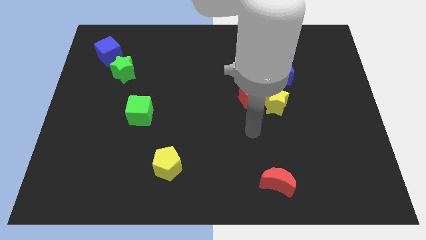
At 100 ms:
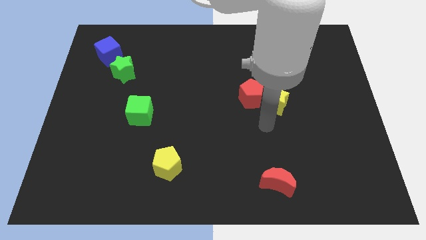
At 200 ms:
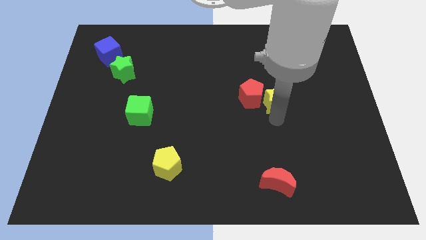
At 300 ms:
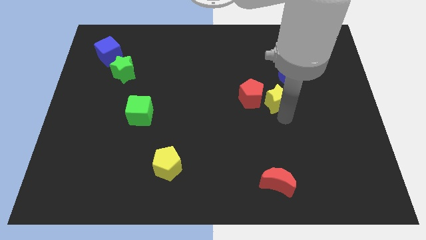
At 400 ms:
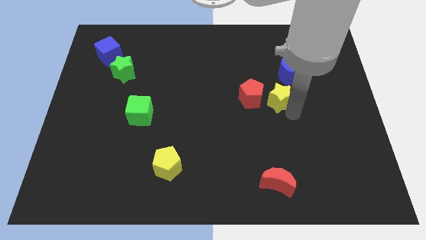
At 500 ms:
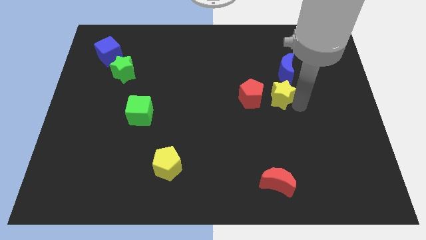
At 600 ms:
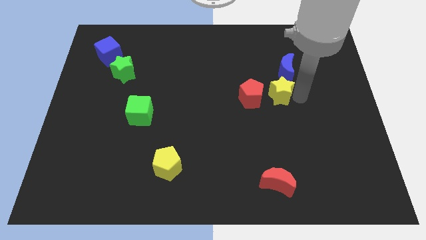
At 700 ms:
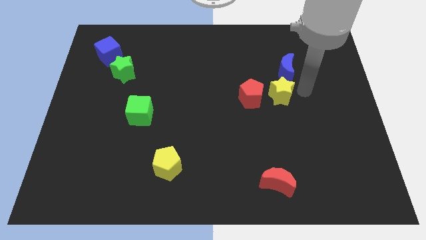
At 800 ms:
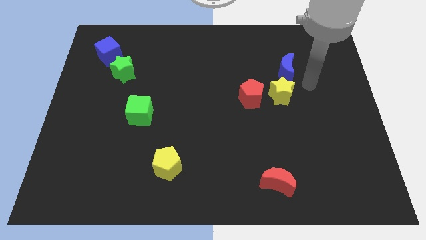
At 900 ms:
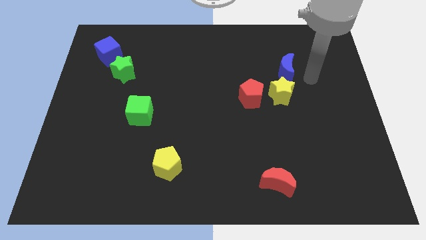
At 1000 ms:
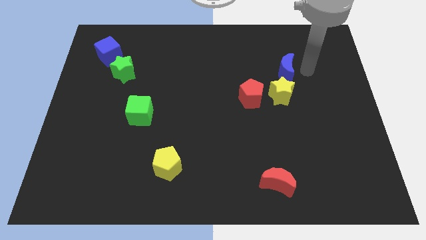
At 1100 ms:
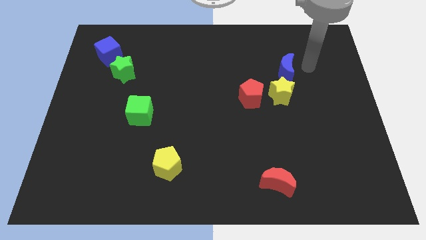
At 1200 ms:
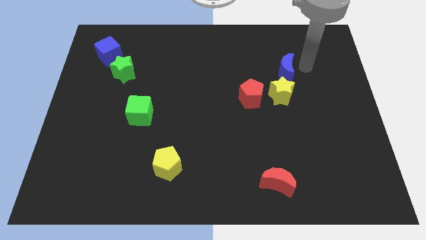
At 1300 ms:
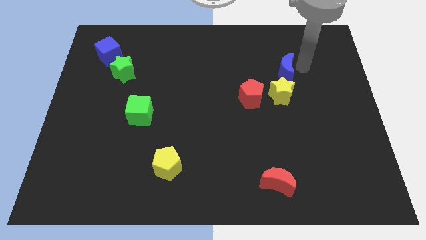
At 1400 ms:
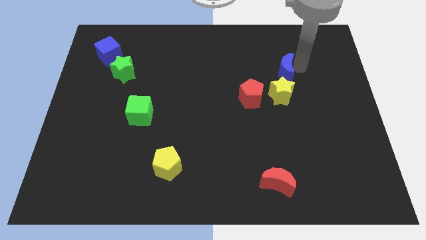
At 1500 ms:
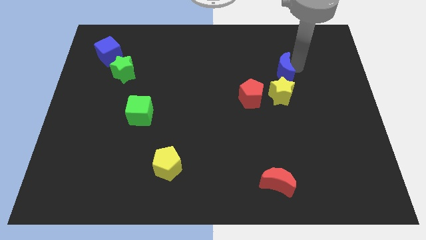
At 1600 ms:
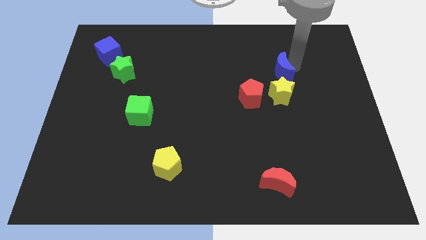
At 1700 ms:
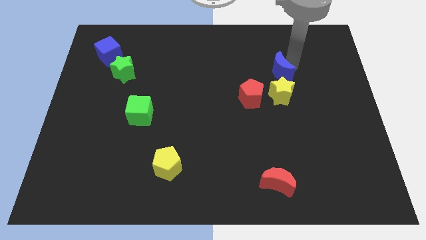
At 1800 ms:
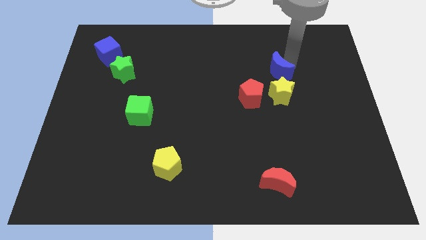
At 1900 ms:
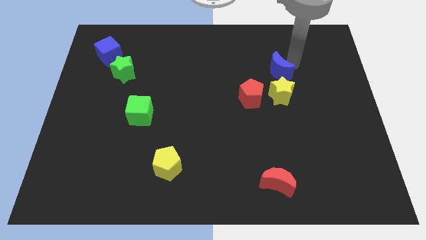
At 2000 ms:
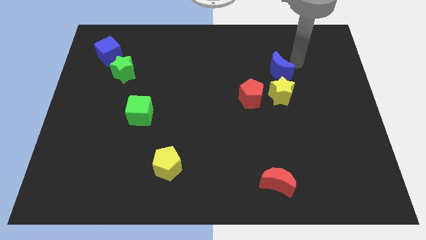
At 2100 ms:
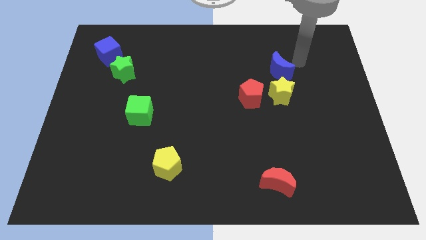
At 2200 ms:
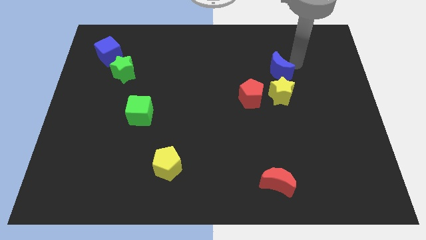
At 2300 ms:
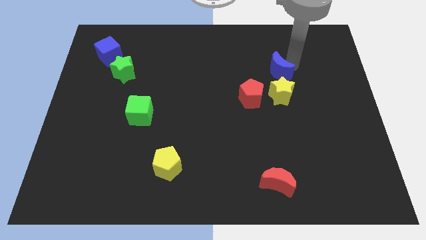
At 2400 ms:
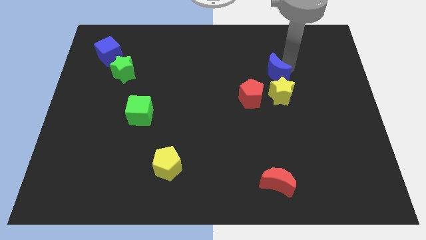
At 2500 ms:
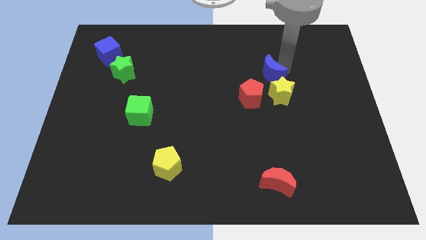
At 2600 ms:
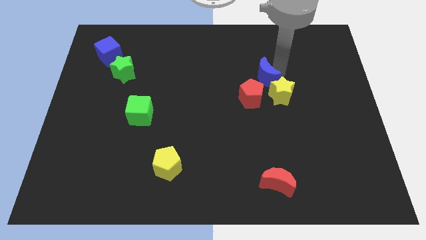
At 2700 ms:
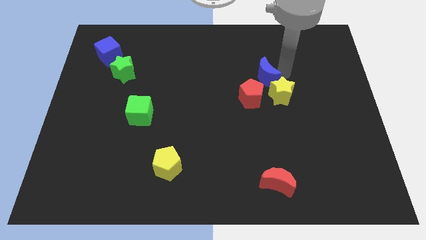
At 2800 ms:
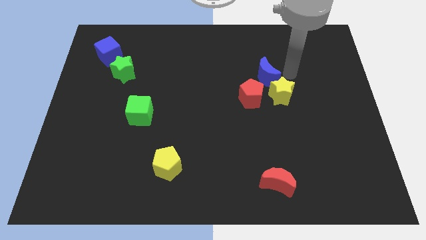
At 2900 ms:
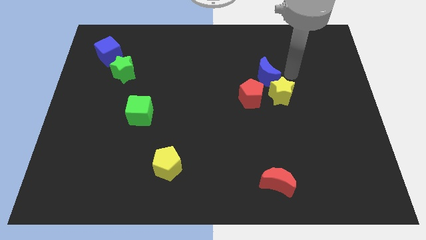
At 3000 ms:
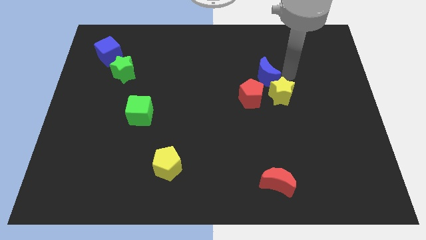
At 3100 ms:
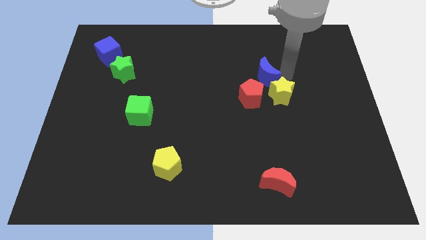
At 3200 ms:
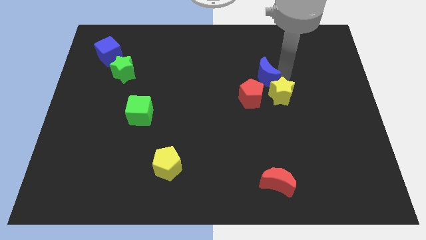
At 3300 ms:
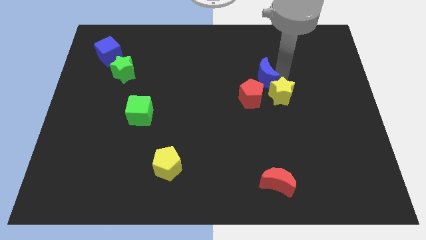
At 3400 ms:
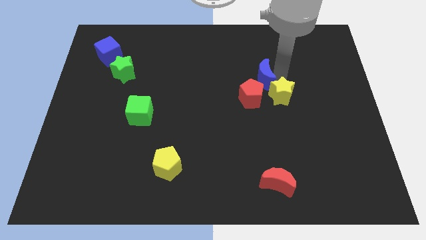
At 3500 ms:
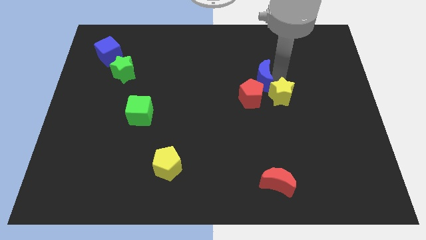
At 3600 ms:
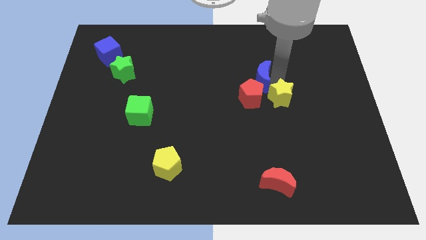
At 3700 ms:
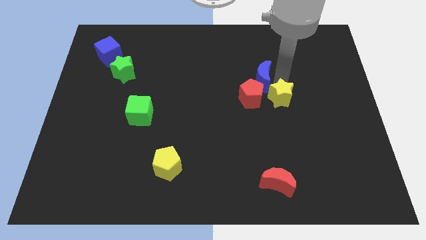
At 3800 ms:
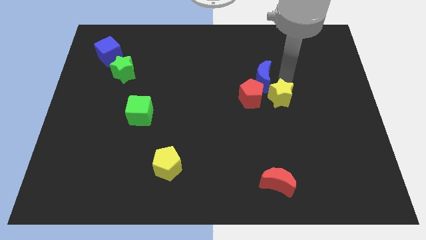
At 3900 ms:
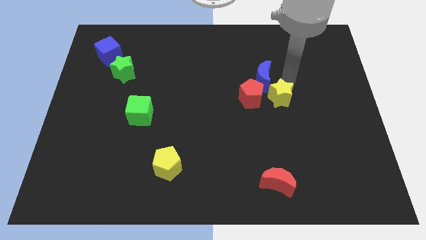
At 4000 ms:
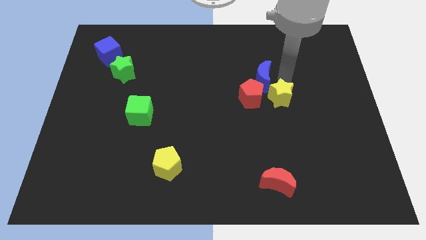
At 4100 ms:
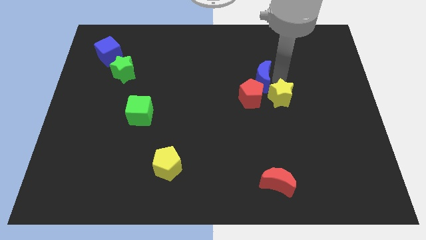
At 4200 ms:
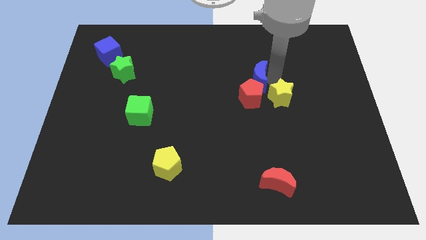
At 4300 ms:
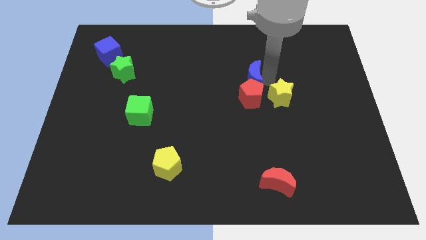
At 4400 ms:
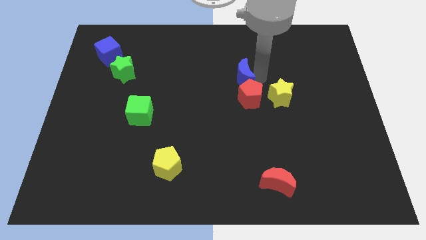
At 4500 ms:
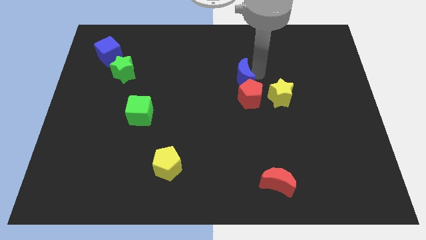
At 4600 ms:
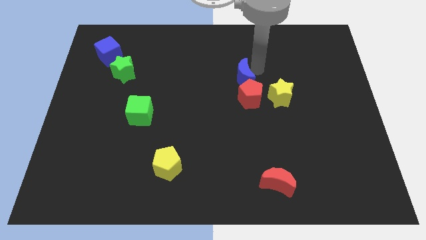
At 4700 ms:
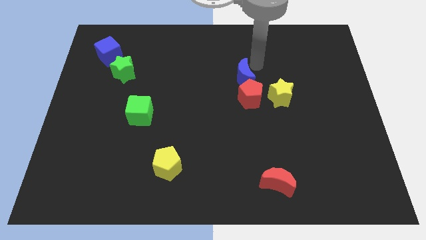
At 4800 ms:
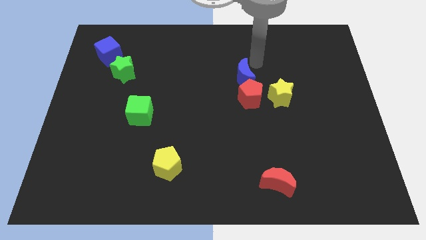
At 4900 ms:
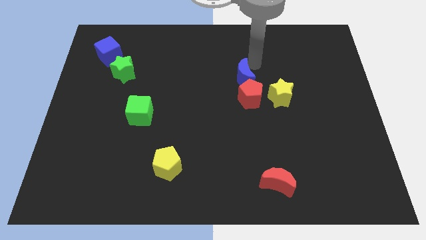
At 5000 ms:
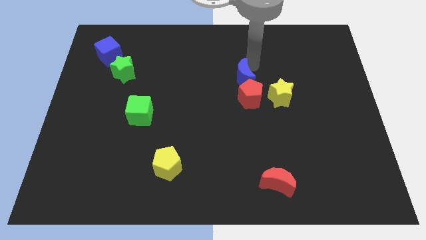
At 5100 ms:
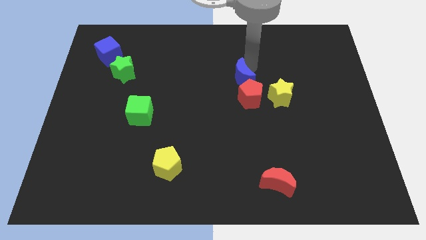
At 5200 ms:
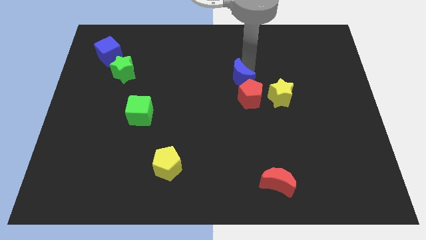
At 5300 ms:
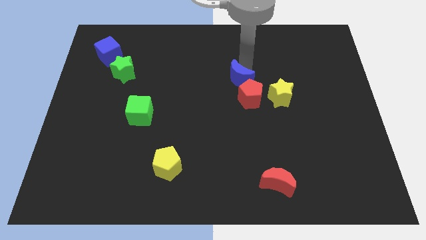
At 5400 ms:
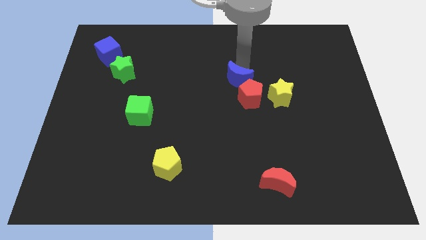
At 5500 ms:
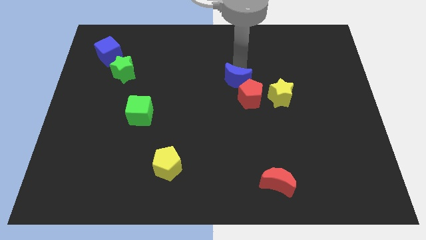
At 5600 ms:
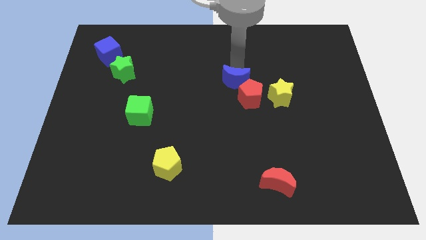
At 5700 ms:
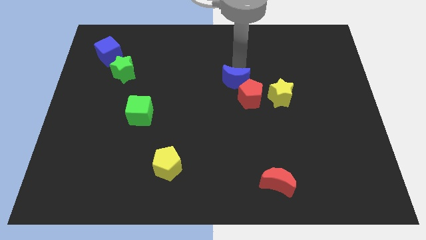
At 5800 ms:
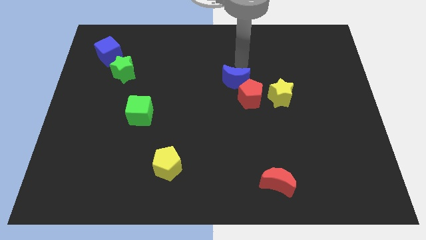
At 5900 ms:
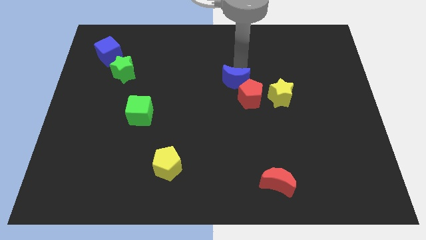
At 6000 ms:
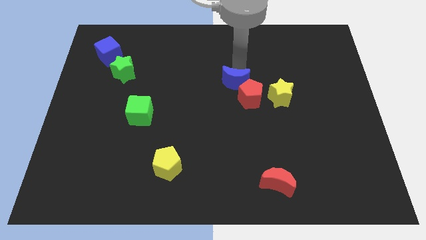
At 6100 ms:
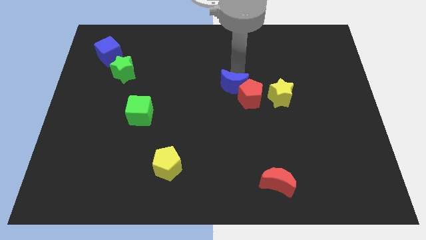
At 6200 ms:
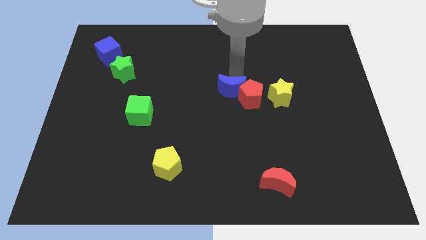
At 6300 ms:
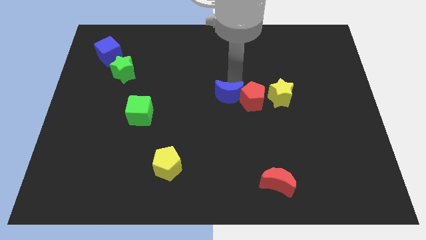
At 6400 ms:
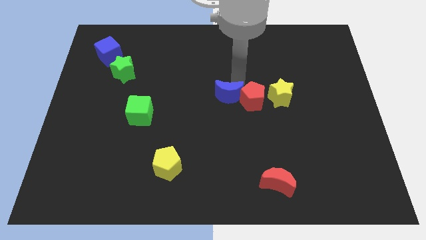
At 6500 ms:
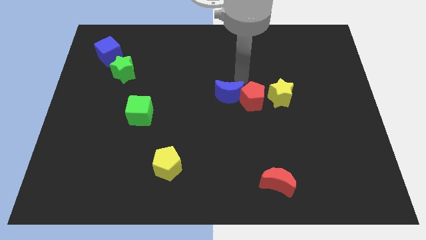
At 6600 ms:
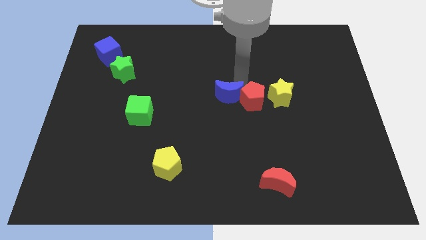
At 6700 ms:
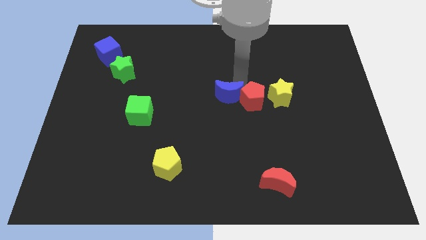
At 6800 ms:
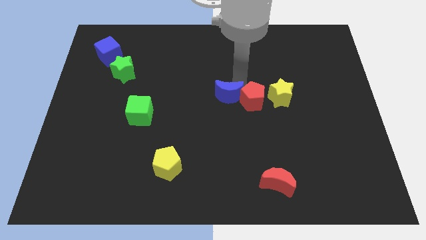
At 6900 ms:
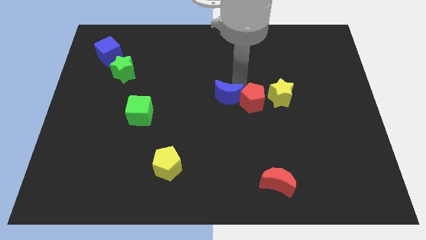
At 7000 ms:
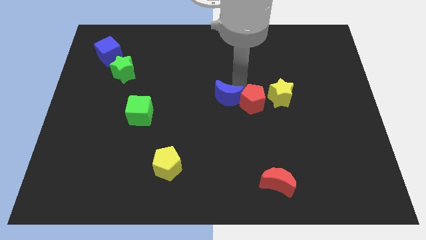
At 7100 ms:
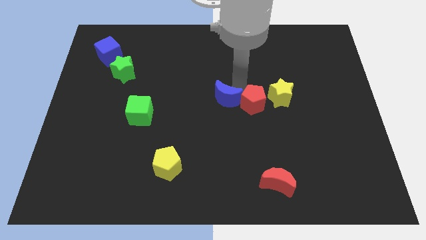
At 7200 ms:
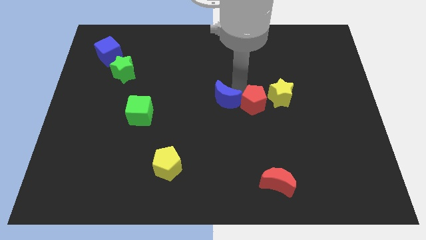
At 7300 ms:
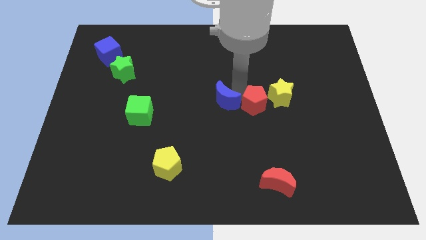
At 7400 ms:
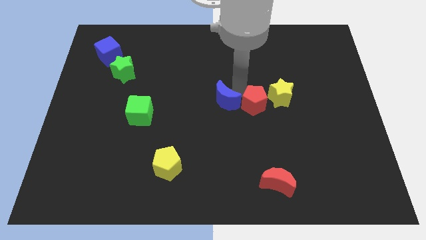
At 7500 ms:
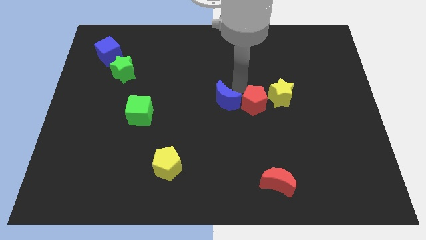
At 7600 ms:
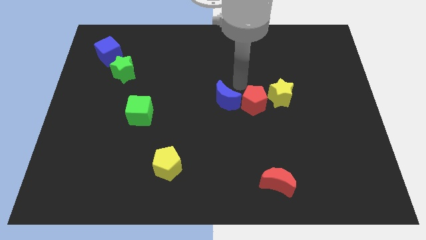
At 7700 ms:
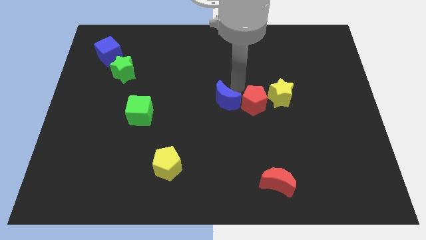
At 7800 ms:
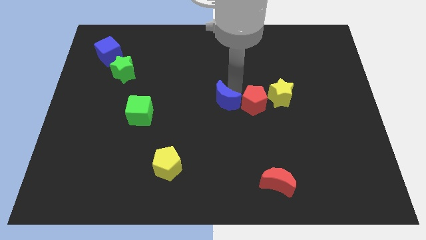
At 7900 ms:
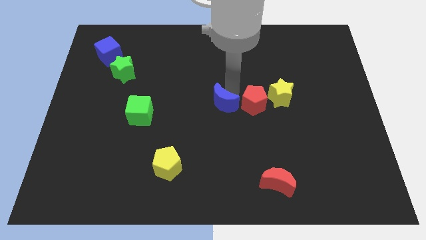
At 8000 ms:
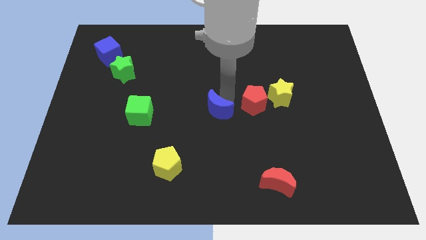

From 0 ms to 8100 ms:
slide the blue moon downwards and left diagonally
